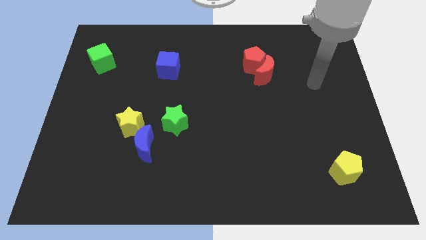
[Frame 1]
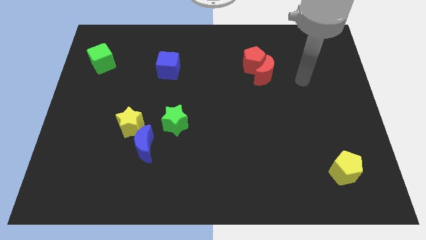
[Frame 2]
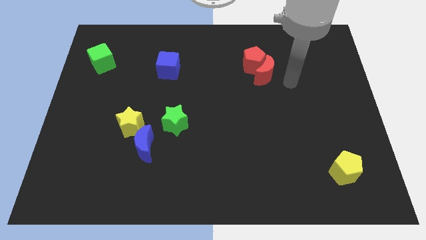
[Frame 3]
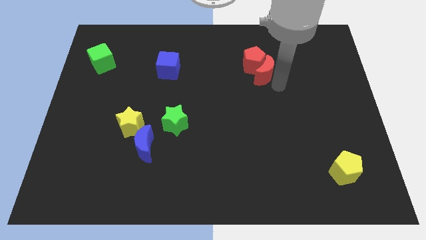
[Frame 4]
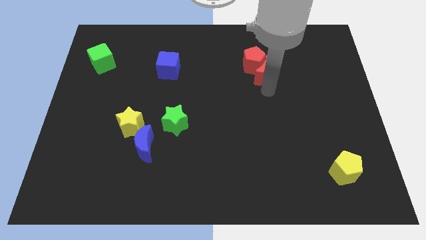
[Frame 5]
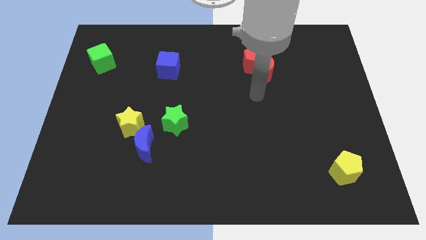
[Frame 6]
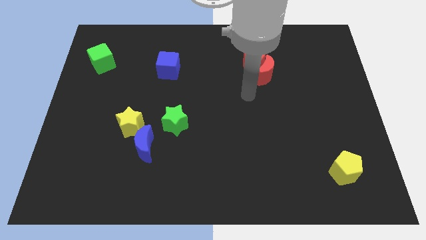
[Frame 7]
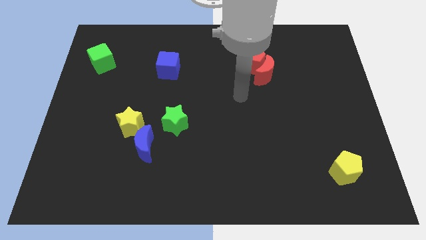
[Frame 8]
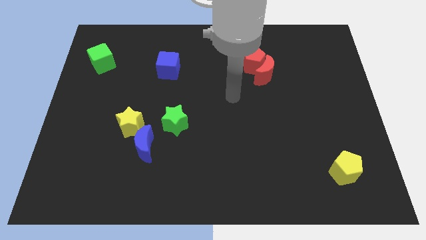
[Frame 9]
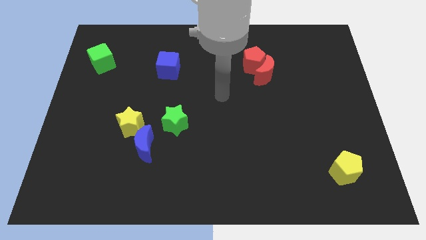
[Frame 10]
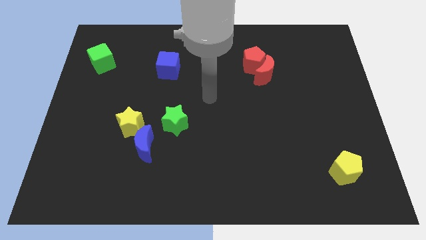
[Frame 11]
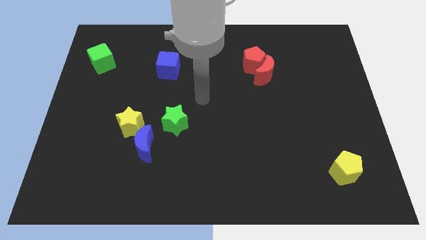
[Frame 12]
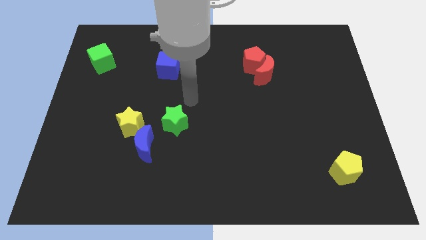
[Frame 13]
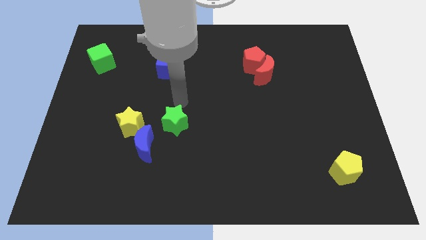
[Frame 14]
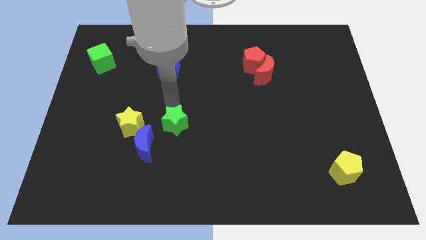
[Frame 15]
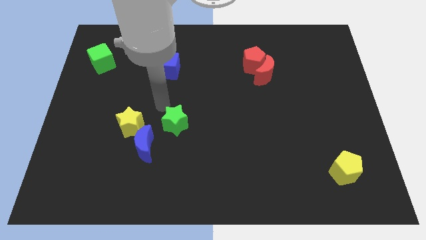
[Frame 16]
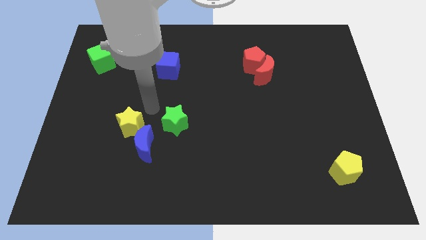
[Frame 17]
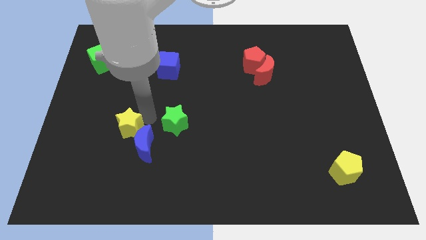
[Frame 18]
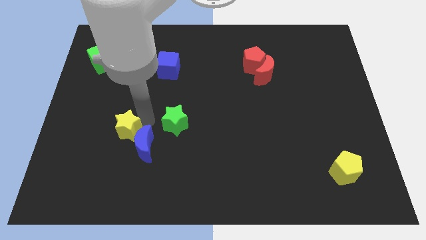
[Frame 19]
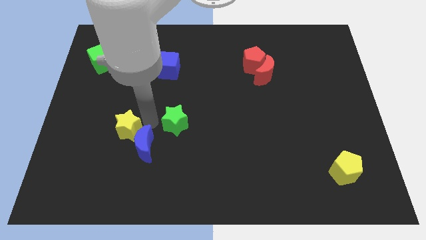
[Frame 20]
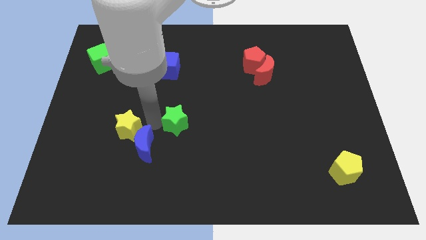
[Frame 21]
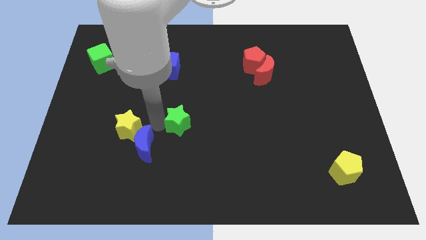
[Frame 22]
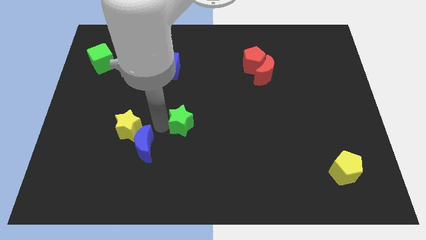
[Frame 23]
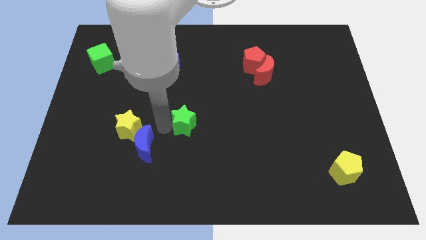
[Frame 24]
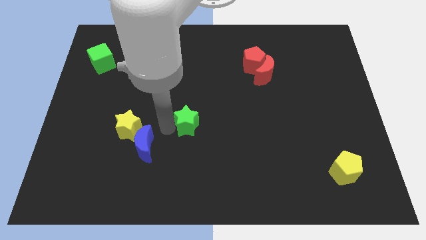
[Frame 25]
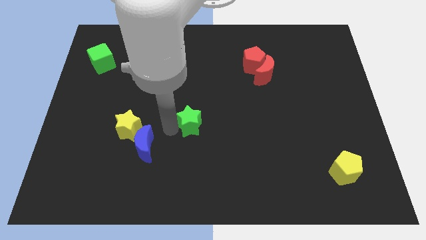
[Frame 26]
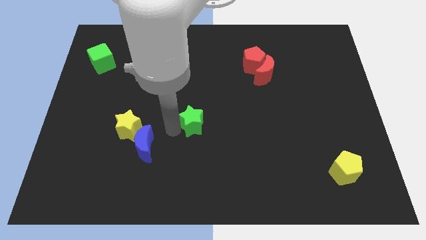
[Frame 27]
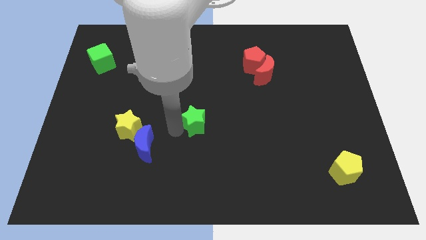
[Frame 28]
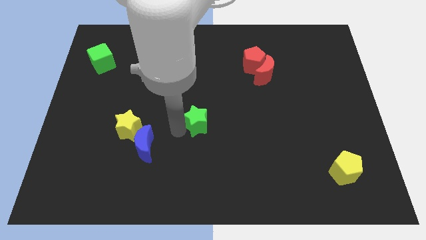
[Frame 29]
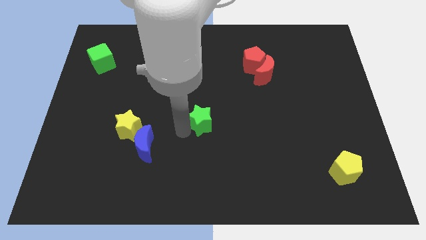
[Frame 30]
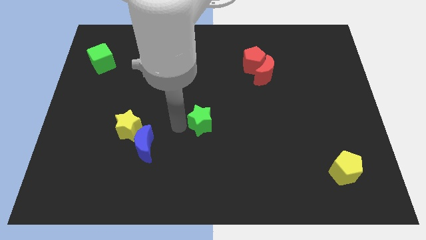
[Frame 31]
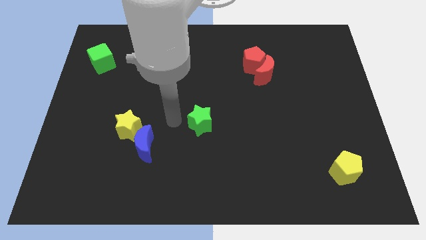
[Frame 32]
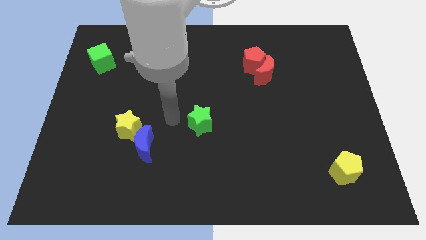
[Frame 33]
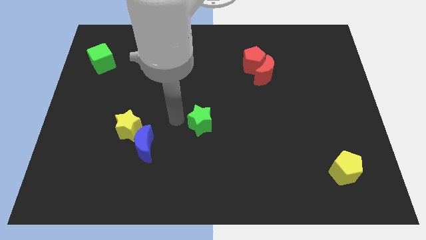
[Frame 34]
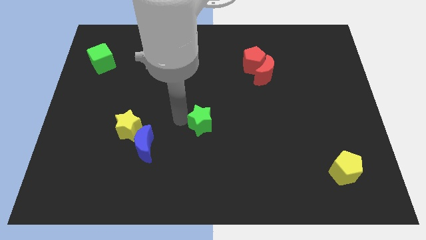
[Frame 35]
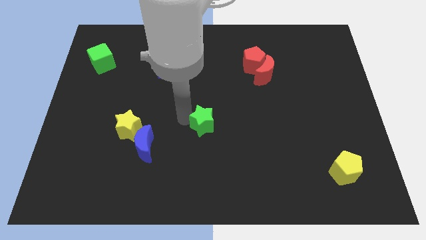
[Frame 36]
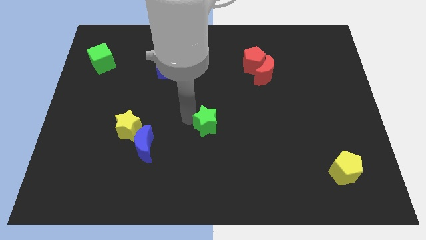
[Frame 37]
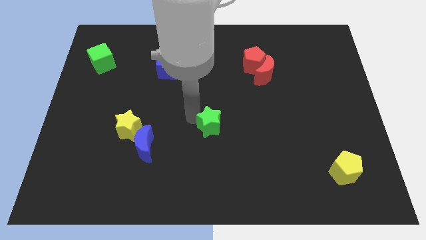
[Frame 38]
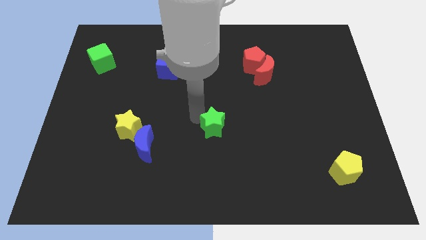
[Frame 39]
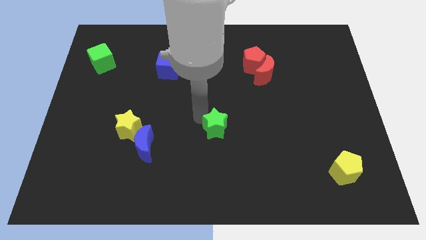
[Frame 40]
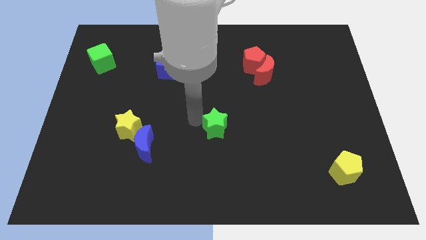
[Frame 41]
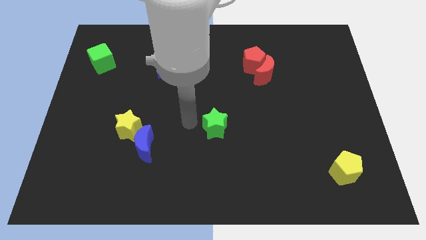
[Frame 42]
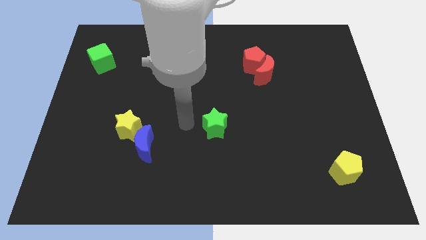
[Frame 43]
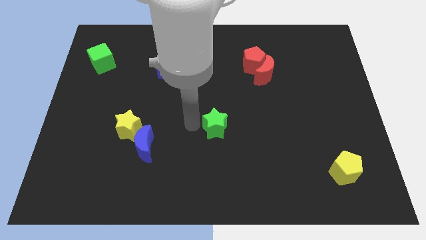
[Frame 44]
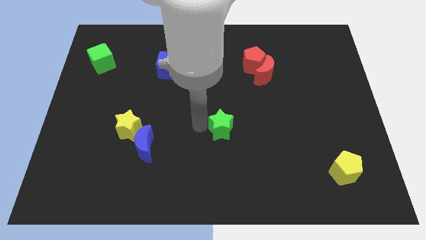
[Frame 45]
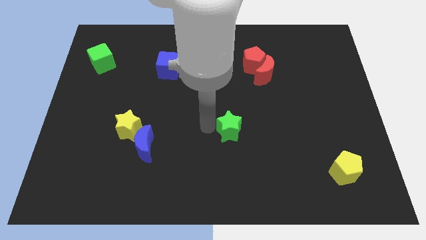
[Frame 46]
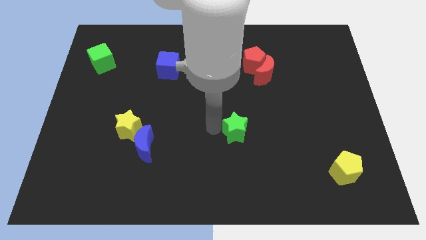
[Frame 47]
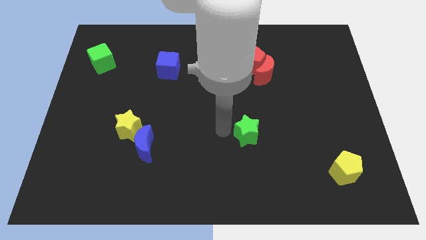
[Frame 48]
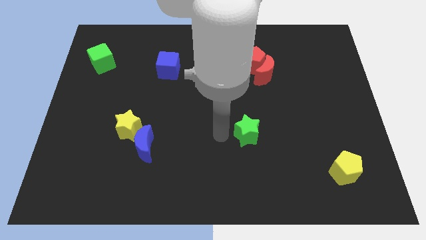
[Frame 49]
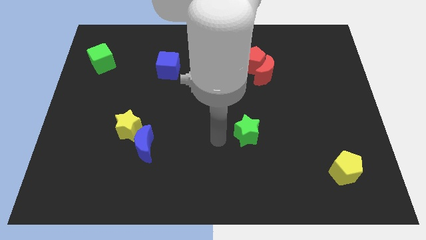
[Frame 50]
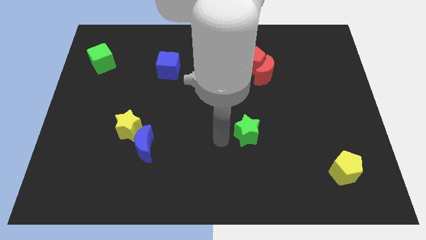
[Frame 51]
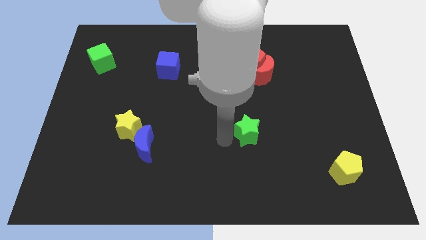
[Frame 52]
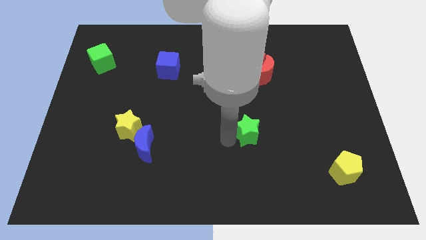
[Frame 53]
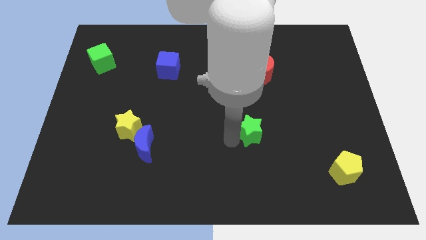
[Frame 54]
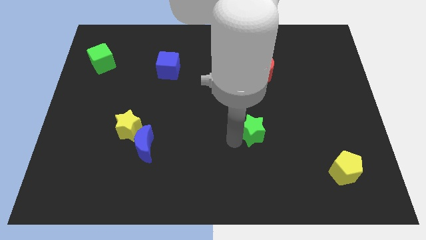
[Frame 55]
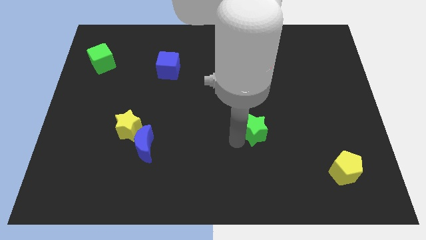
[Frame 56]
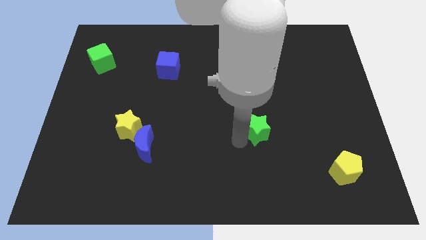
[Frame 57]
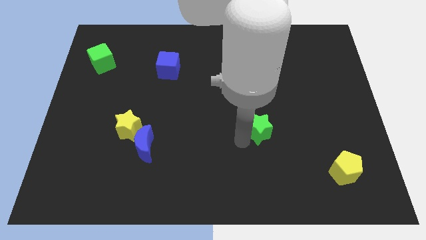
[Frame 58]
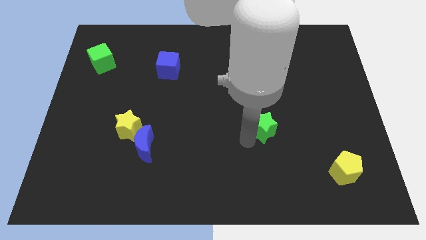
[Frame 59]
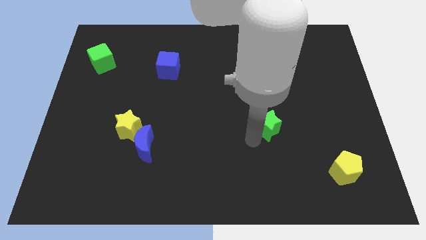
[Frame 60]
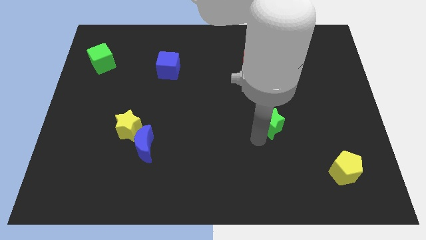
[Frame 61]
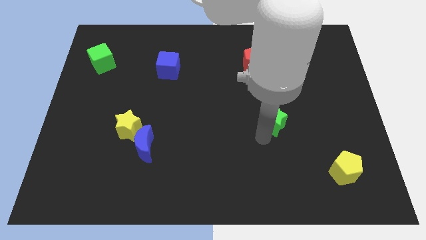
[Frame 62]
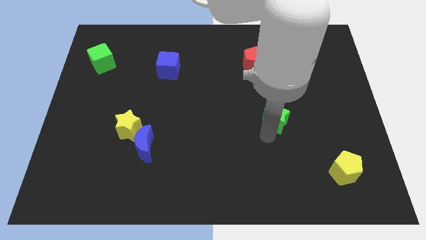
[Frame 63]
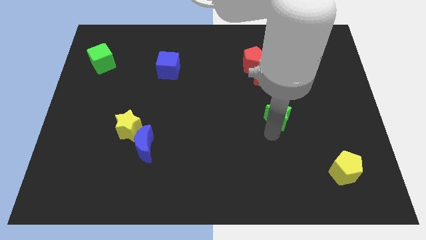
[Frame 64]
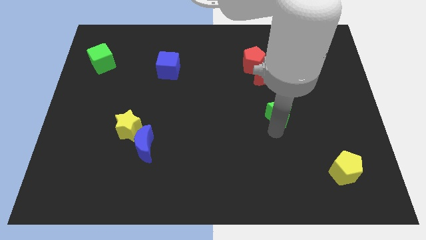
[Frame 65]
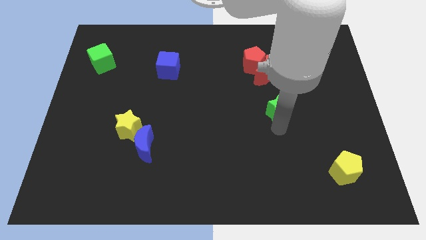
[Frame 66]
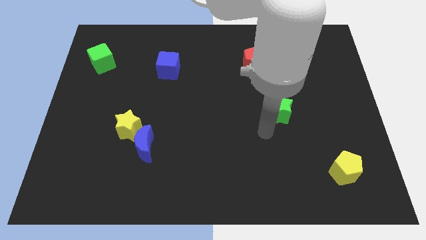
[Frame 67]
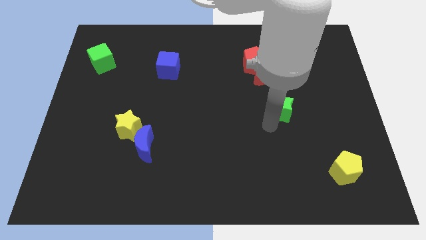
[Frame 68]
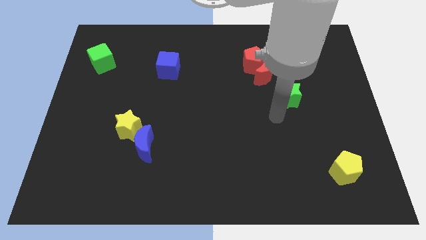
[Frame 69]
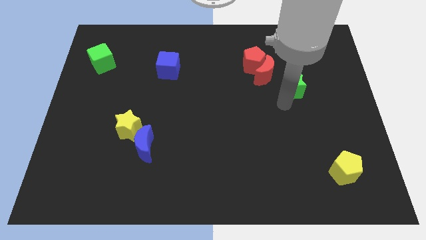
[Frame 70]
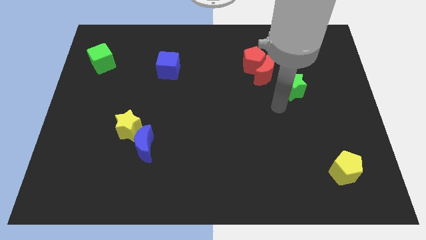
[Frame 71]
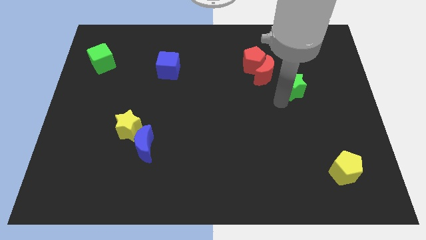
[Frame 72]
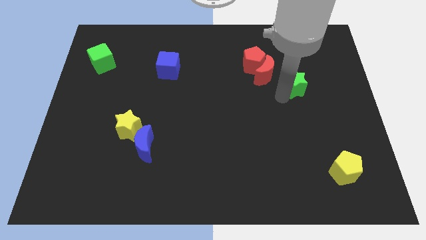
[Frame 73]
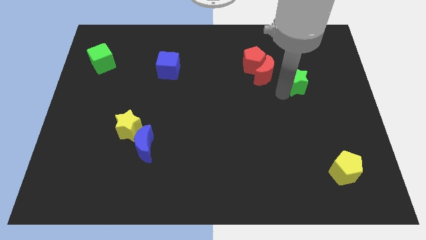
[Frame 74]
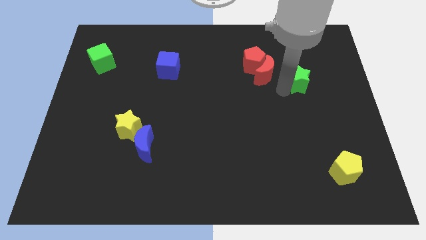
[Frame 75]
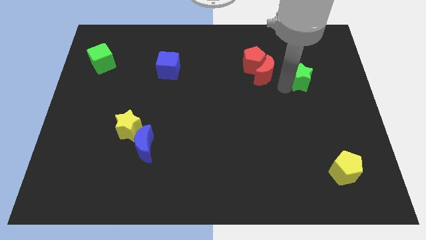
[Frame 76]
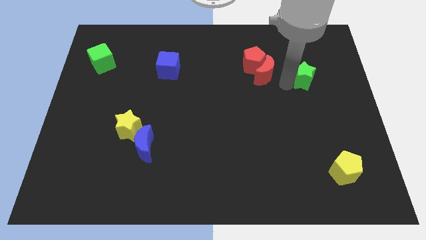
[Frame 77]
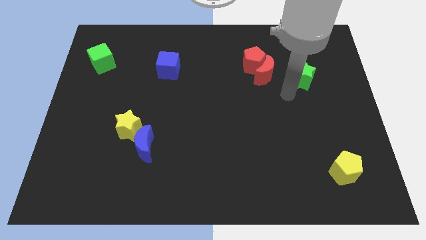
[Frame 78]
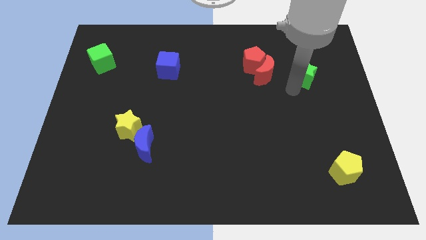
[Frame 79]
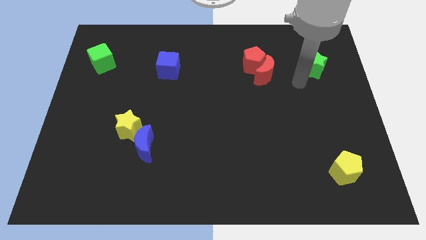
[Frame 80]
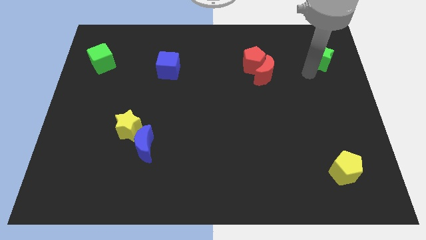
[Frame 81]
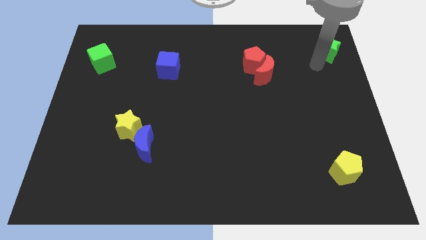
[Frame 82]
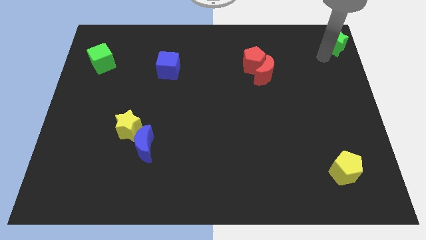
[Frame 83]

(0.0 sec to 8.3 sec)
push the green star to the upper right corner
